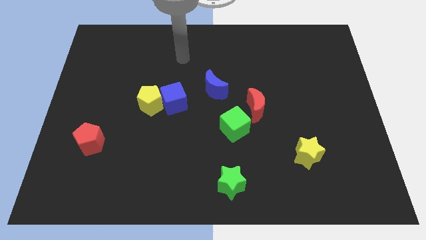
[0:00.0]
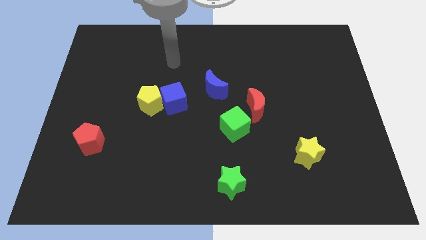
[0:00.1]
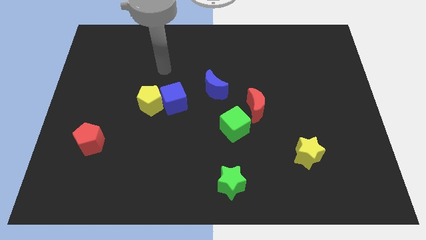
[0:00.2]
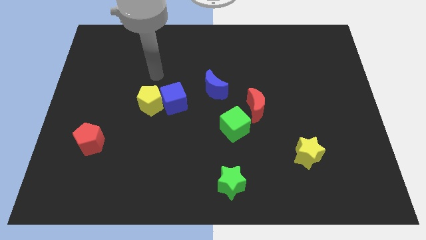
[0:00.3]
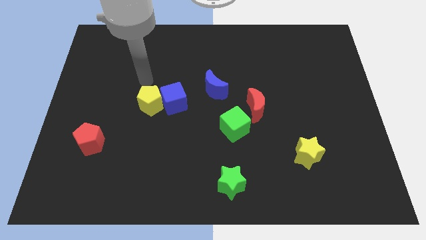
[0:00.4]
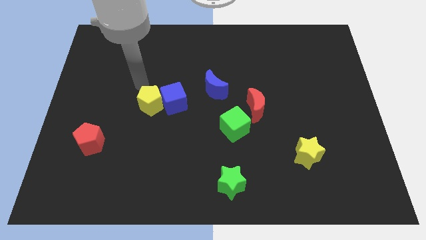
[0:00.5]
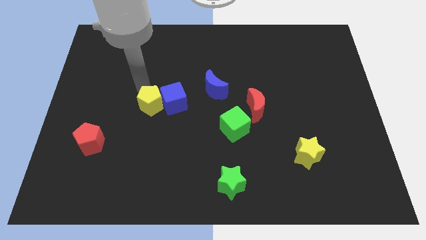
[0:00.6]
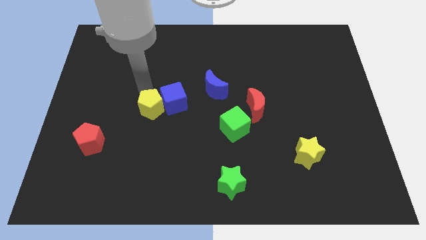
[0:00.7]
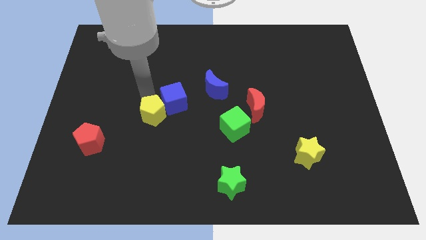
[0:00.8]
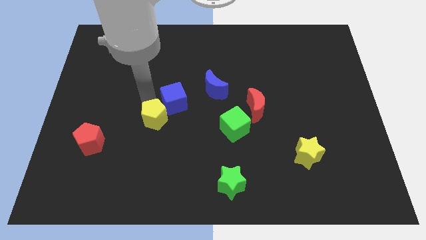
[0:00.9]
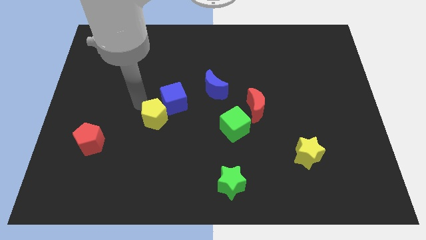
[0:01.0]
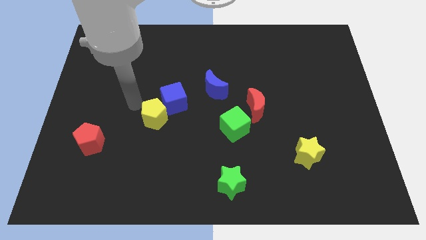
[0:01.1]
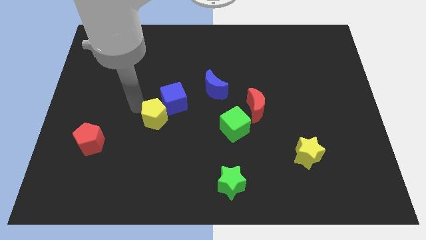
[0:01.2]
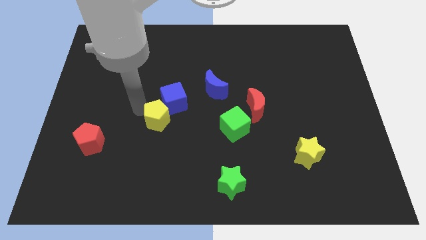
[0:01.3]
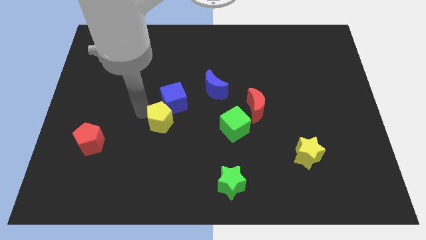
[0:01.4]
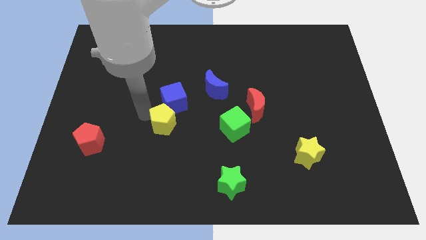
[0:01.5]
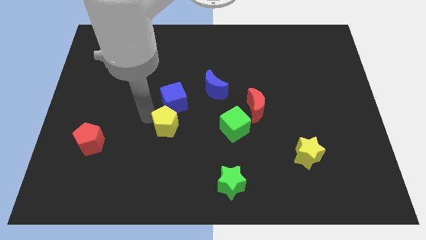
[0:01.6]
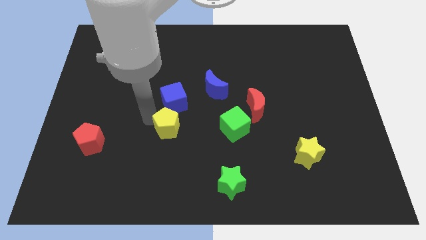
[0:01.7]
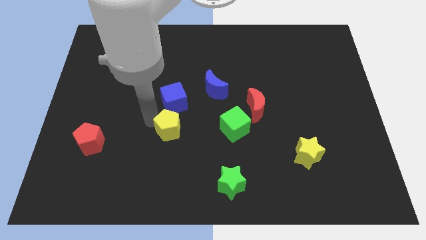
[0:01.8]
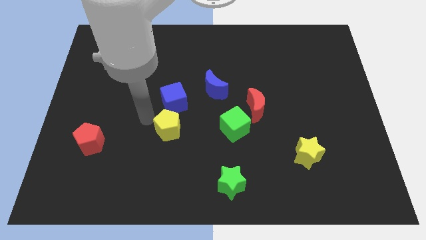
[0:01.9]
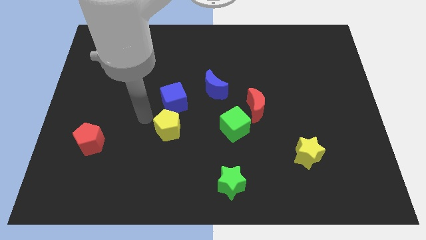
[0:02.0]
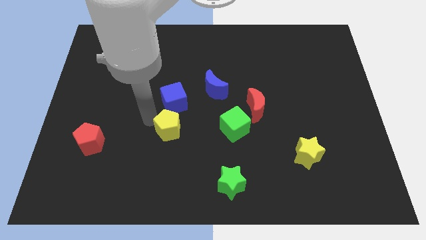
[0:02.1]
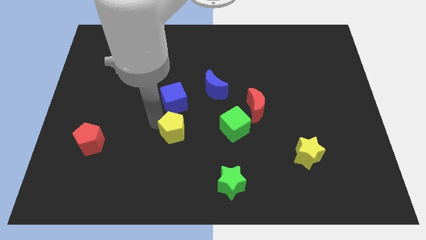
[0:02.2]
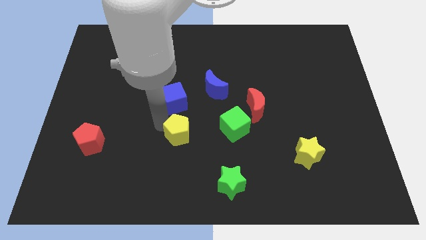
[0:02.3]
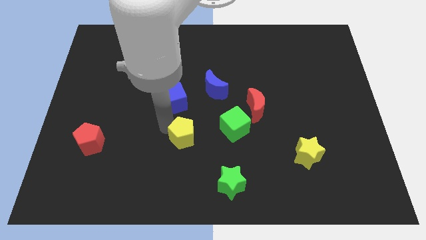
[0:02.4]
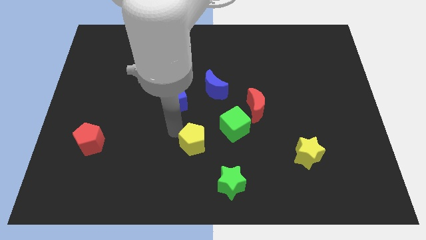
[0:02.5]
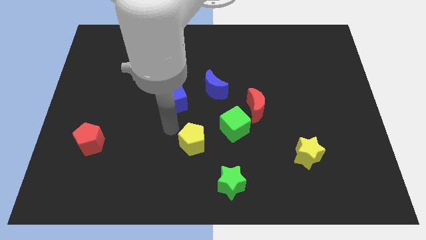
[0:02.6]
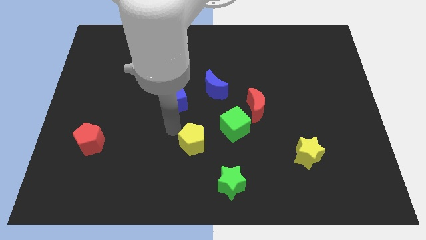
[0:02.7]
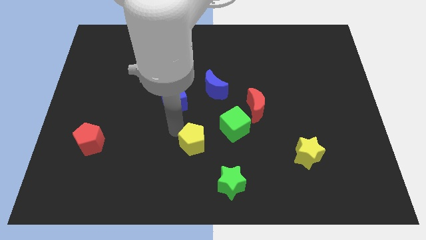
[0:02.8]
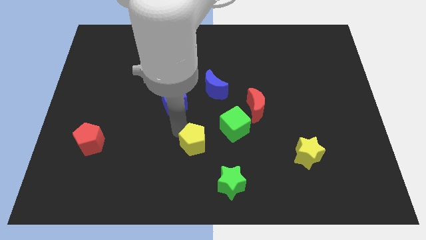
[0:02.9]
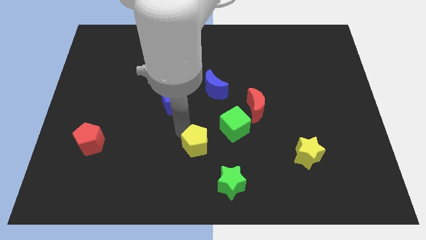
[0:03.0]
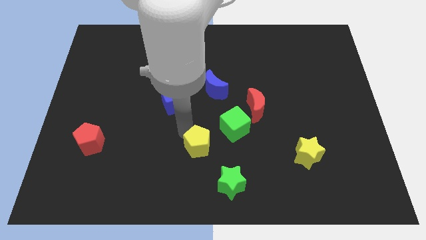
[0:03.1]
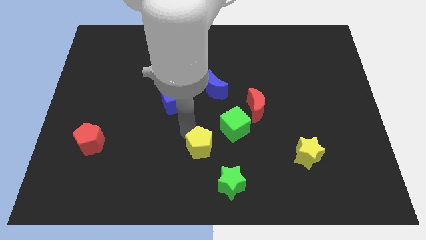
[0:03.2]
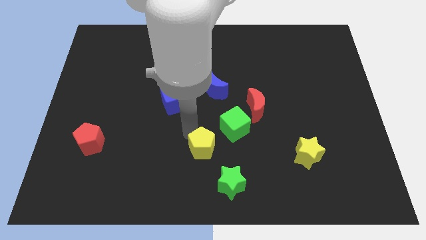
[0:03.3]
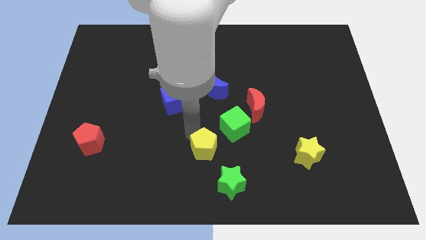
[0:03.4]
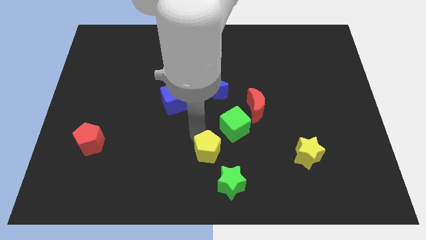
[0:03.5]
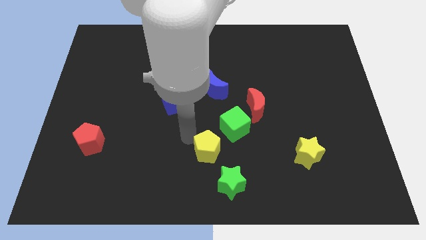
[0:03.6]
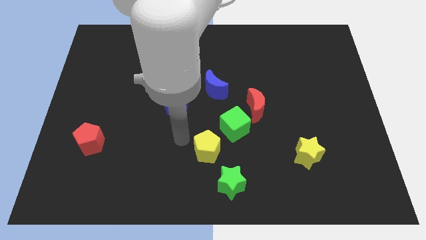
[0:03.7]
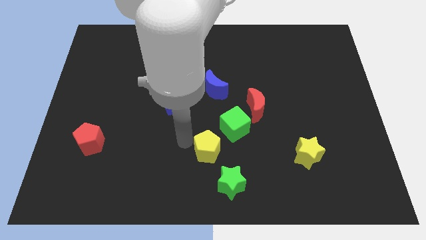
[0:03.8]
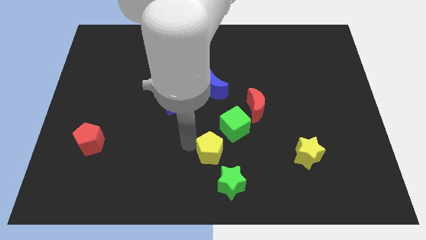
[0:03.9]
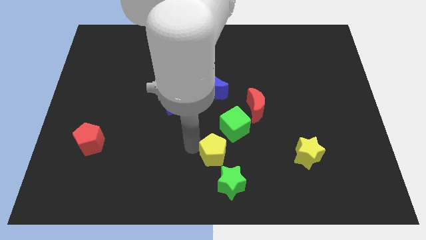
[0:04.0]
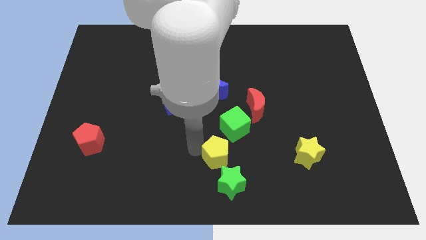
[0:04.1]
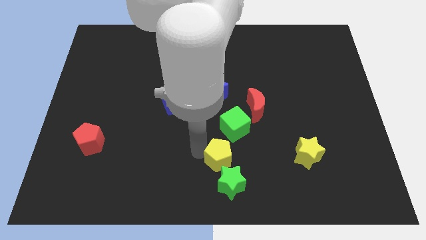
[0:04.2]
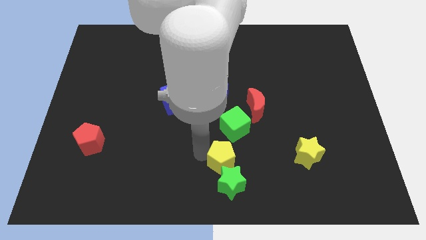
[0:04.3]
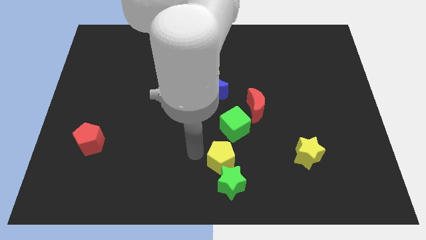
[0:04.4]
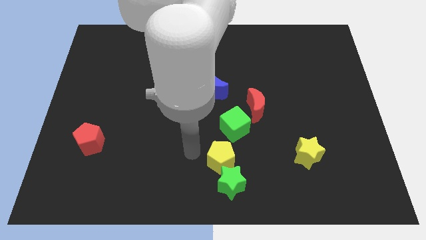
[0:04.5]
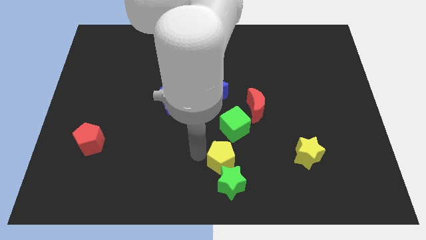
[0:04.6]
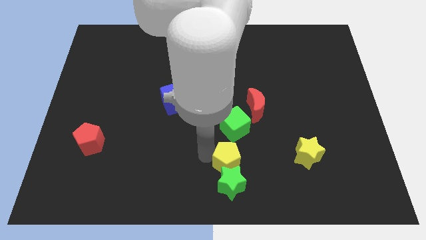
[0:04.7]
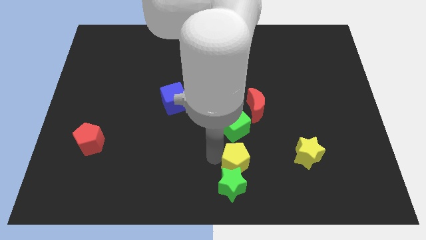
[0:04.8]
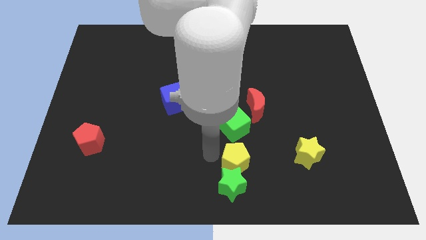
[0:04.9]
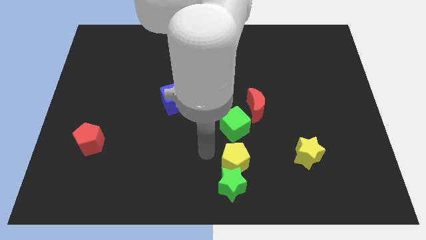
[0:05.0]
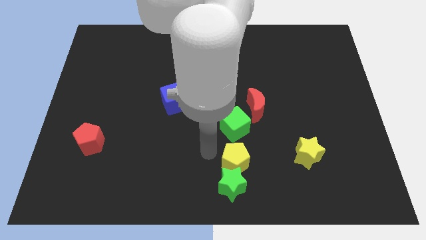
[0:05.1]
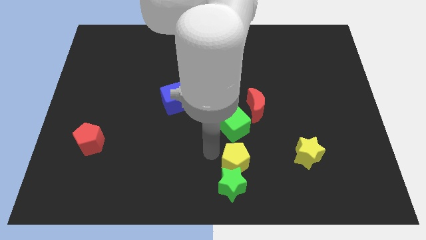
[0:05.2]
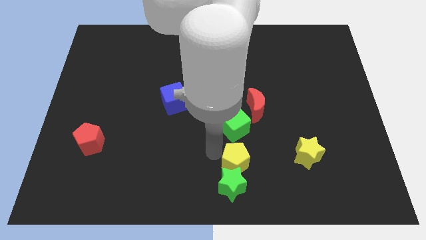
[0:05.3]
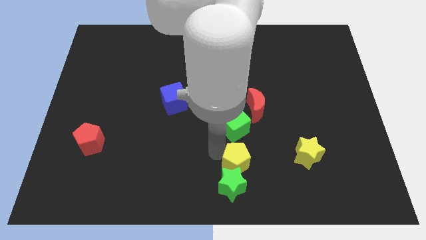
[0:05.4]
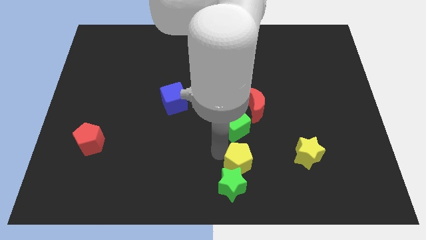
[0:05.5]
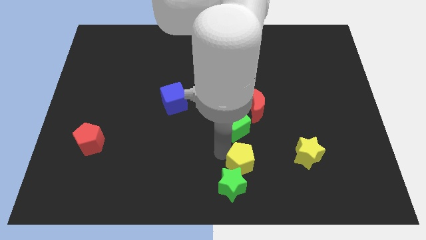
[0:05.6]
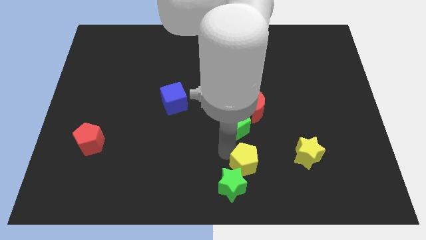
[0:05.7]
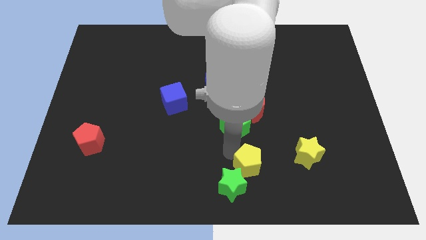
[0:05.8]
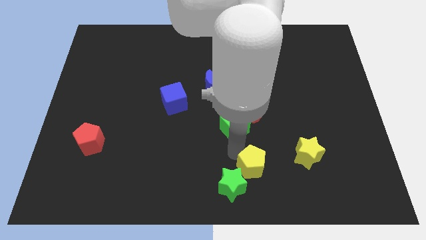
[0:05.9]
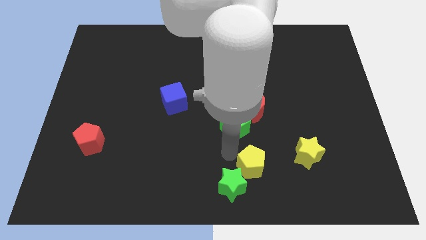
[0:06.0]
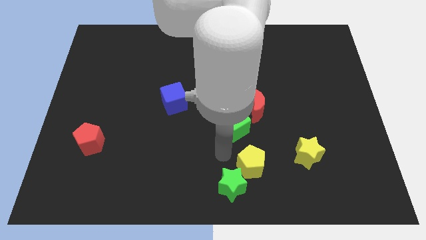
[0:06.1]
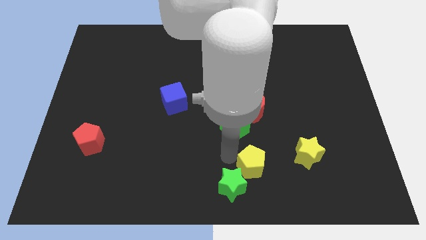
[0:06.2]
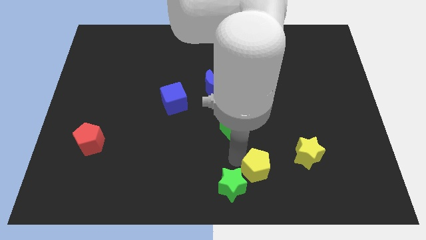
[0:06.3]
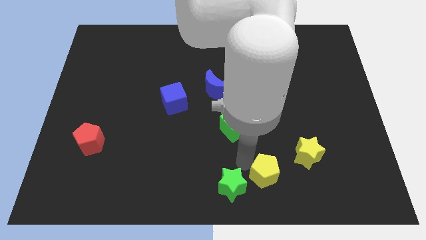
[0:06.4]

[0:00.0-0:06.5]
slide the yellow pentagon to the bottom left side of the yellow star
